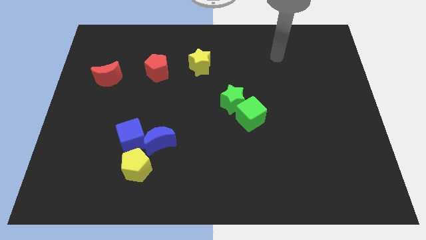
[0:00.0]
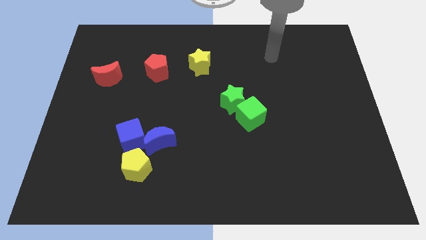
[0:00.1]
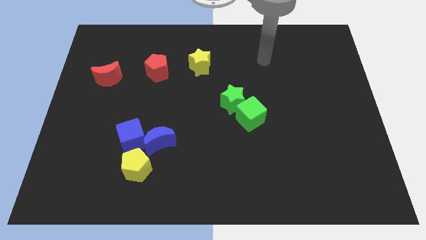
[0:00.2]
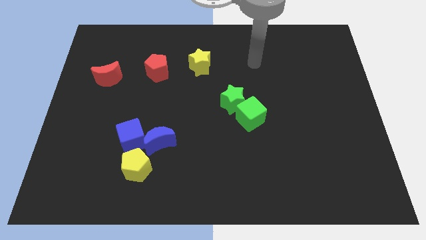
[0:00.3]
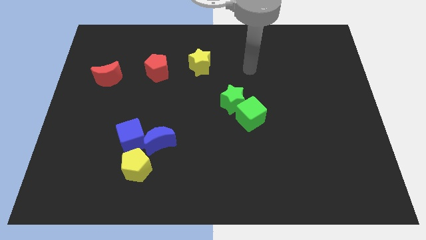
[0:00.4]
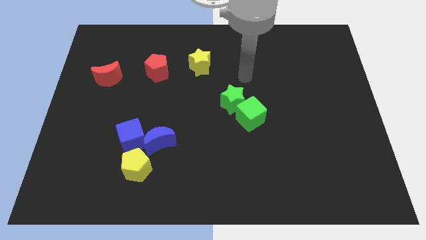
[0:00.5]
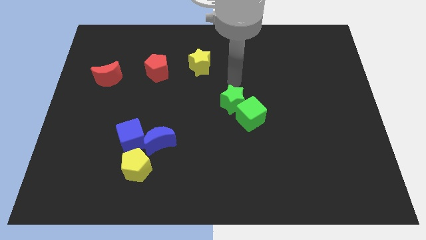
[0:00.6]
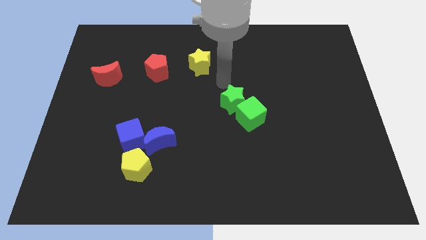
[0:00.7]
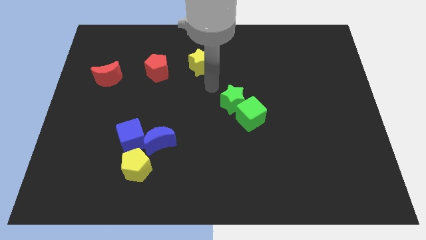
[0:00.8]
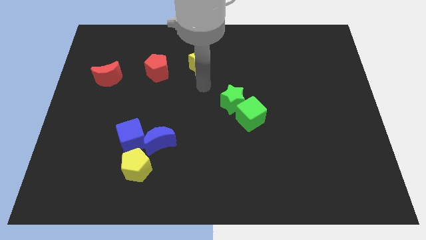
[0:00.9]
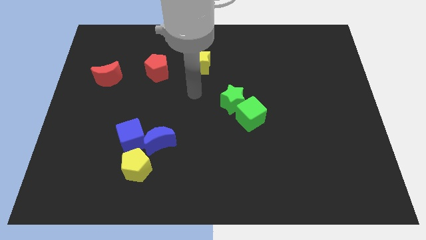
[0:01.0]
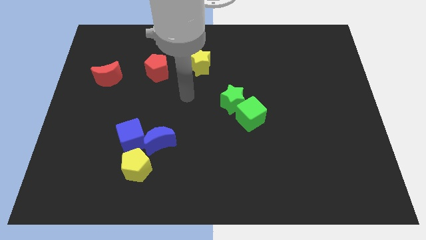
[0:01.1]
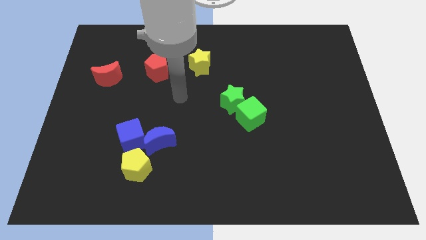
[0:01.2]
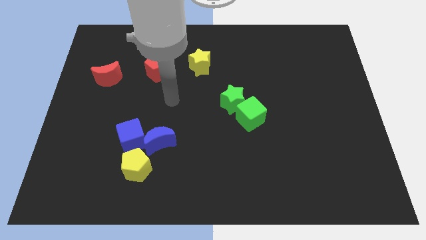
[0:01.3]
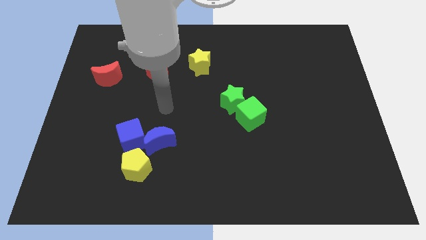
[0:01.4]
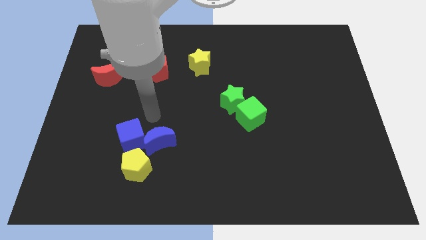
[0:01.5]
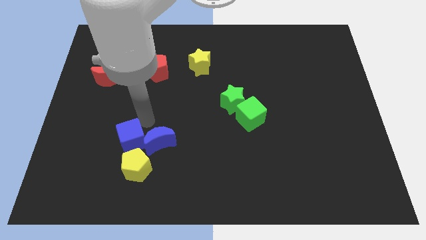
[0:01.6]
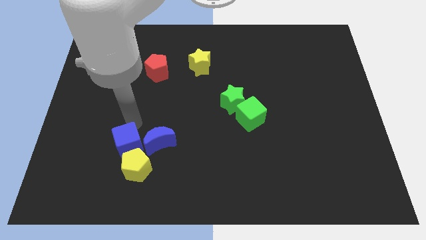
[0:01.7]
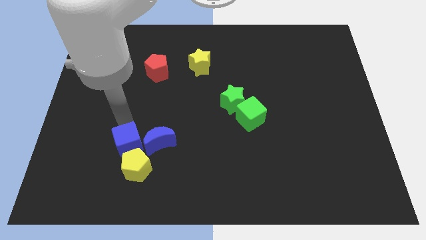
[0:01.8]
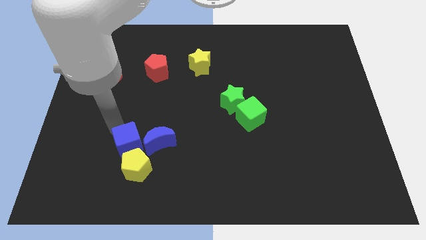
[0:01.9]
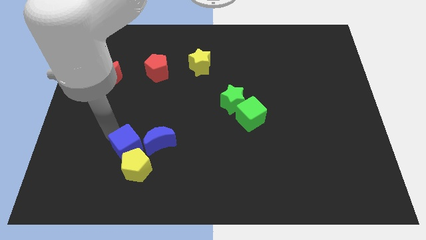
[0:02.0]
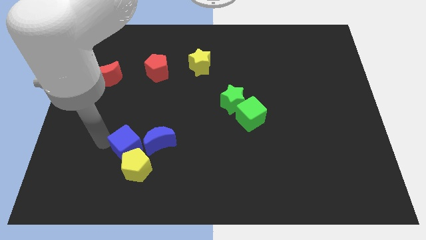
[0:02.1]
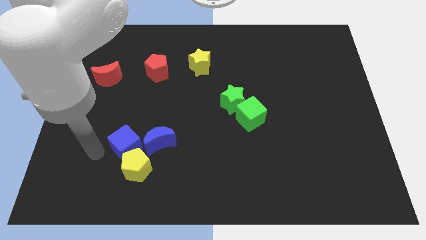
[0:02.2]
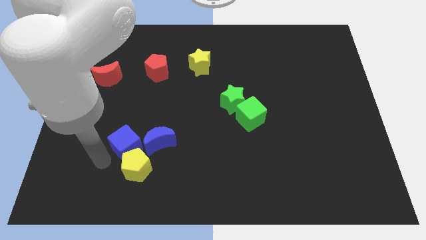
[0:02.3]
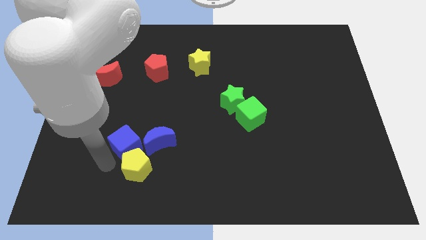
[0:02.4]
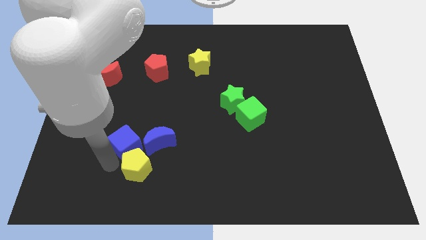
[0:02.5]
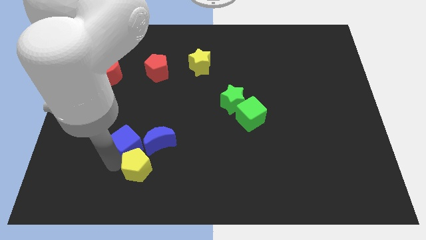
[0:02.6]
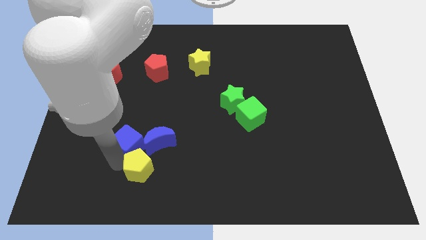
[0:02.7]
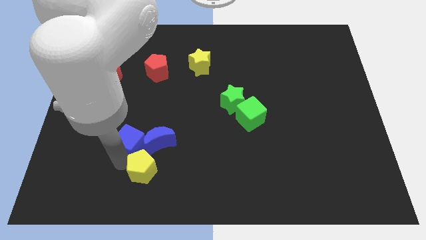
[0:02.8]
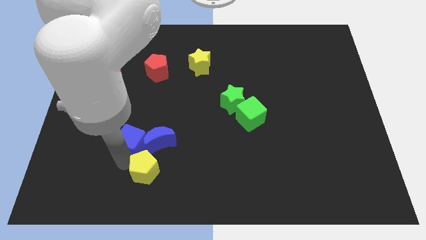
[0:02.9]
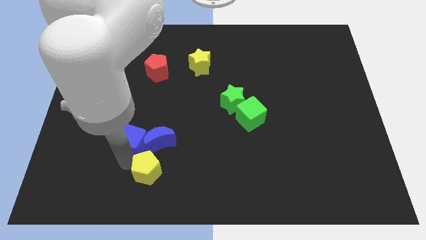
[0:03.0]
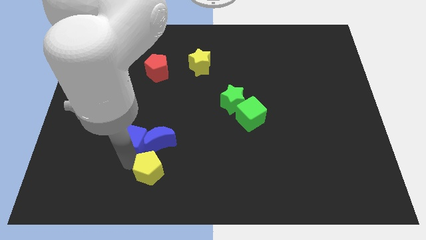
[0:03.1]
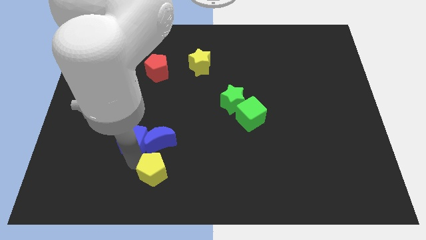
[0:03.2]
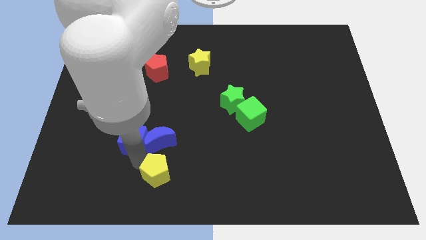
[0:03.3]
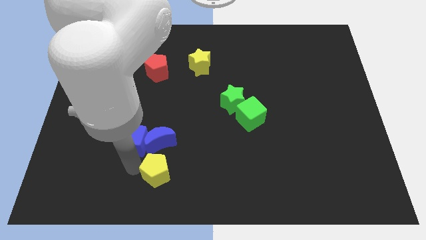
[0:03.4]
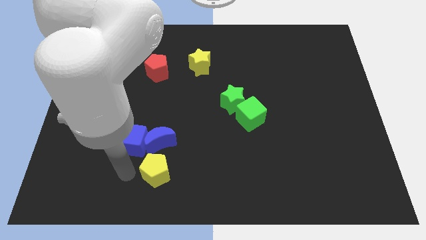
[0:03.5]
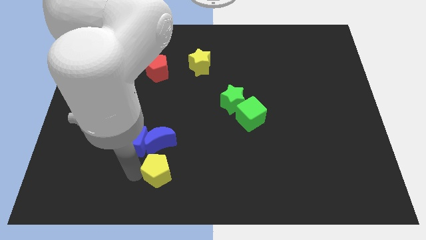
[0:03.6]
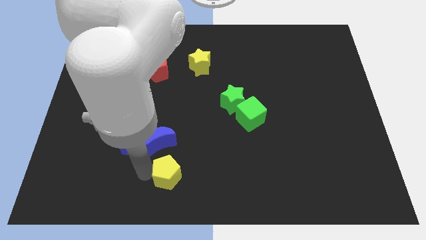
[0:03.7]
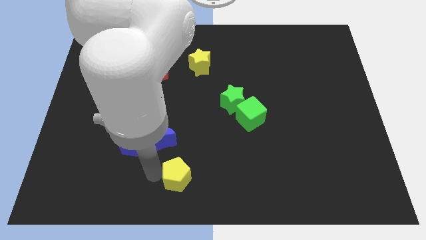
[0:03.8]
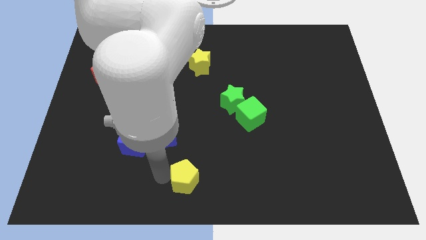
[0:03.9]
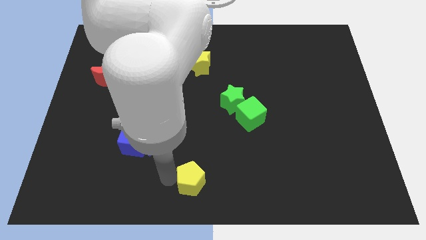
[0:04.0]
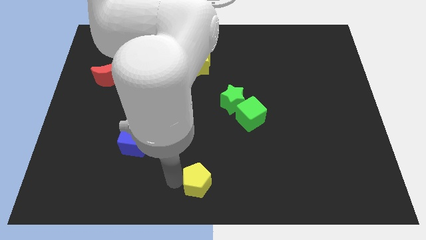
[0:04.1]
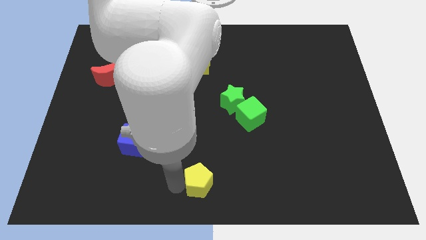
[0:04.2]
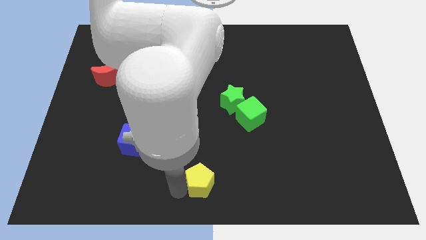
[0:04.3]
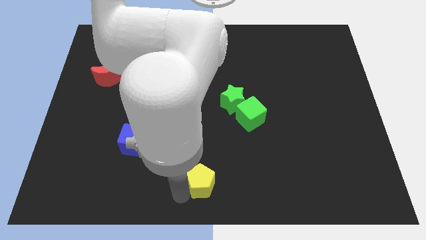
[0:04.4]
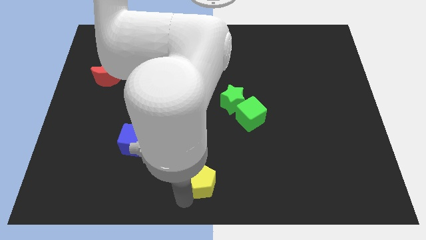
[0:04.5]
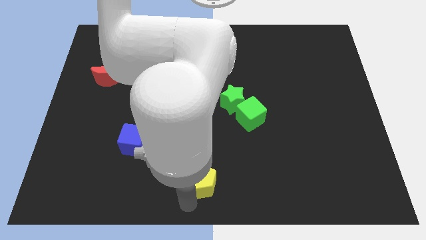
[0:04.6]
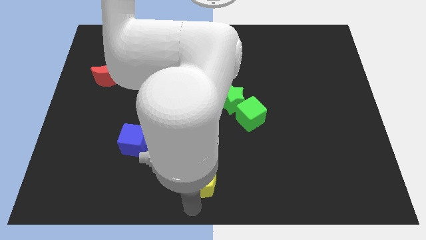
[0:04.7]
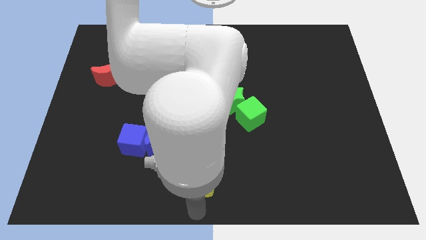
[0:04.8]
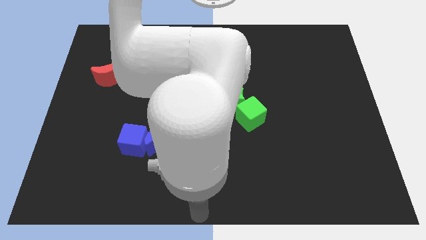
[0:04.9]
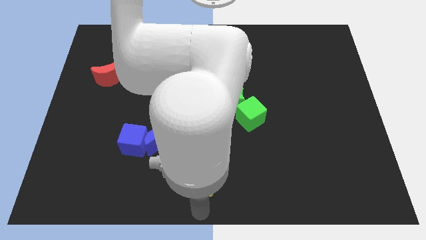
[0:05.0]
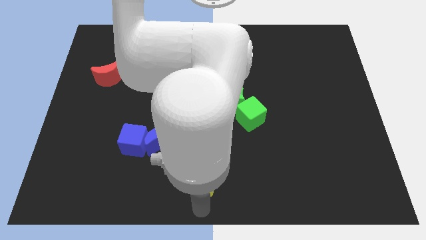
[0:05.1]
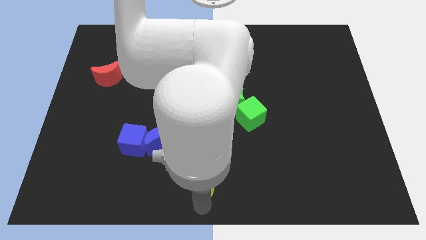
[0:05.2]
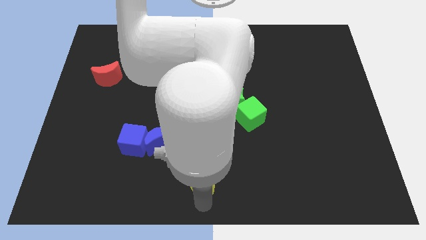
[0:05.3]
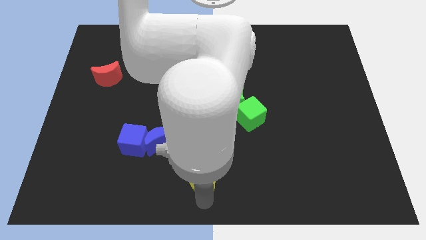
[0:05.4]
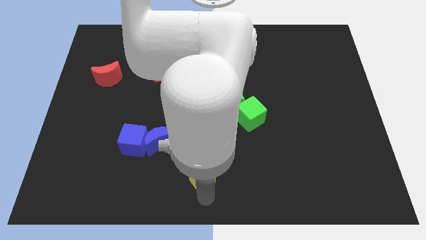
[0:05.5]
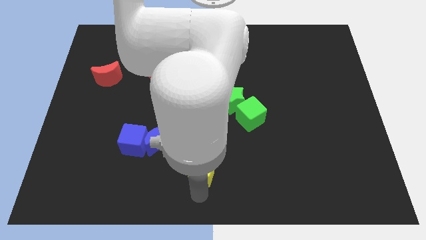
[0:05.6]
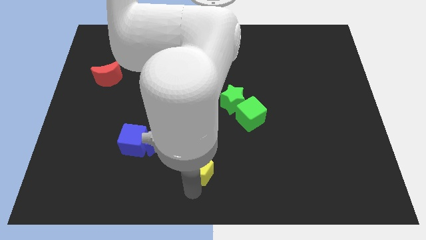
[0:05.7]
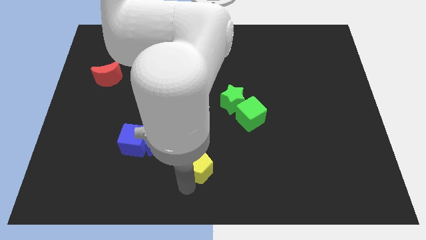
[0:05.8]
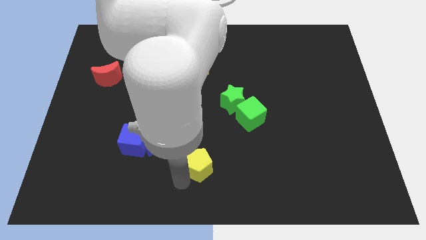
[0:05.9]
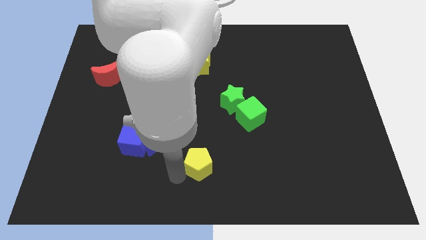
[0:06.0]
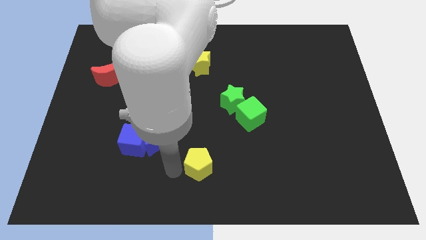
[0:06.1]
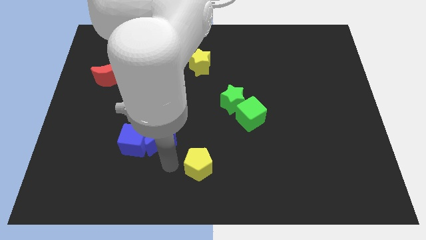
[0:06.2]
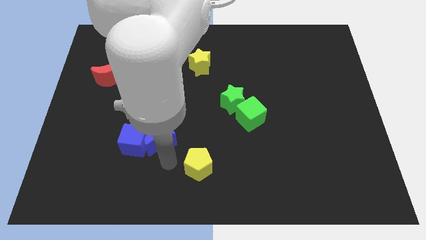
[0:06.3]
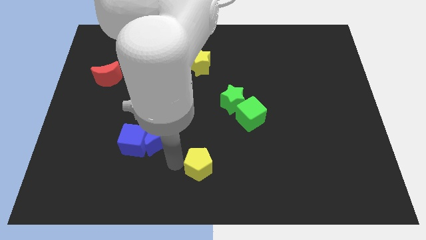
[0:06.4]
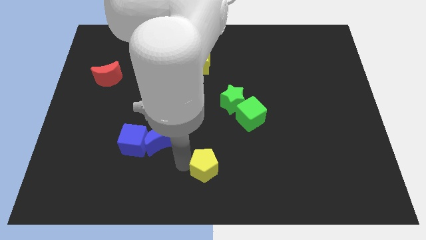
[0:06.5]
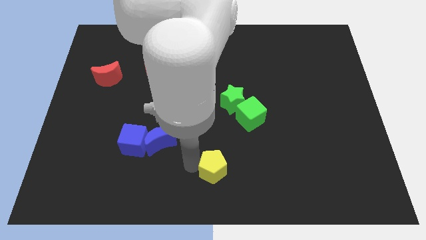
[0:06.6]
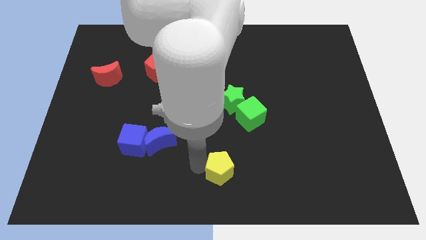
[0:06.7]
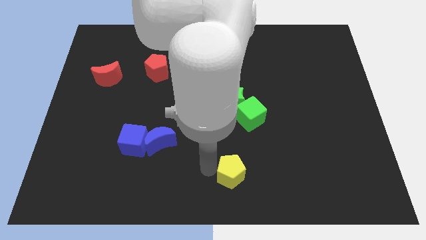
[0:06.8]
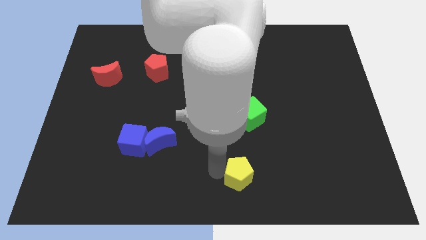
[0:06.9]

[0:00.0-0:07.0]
move the yellow pentagon right

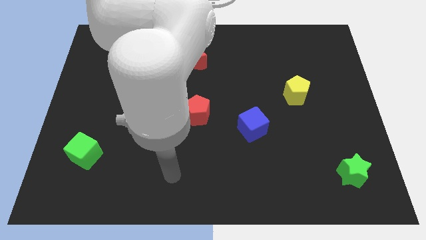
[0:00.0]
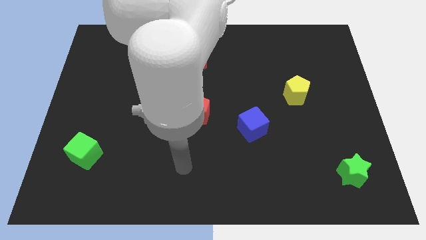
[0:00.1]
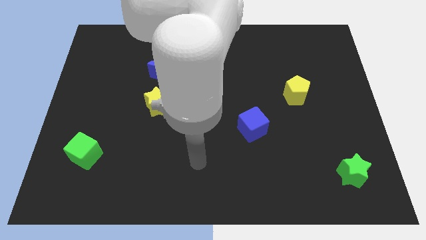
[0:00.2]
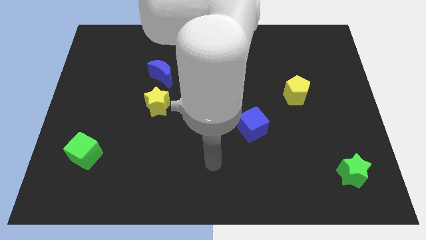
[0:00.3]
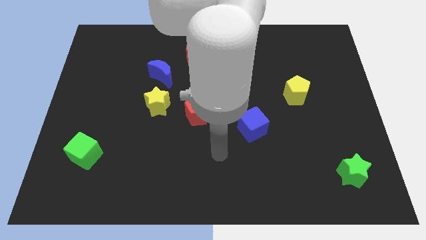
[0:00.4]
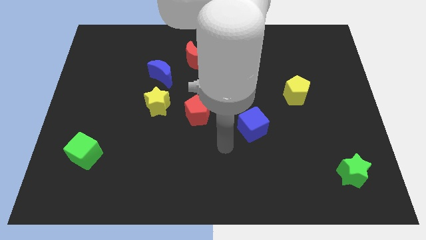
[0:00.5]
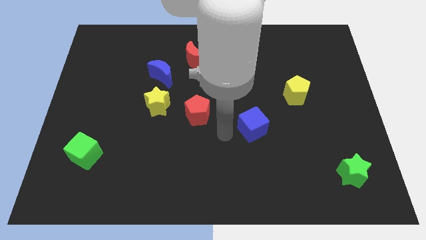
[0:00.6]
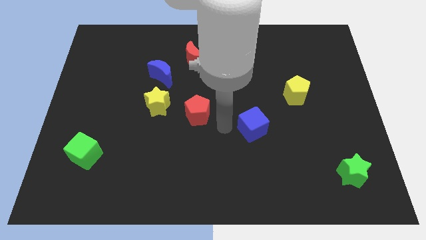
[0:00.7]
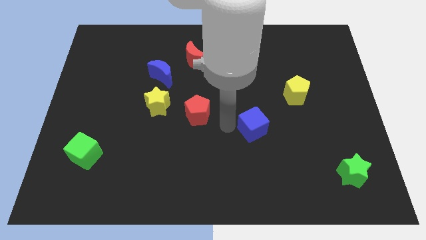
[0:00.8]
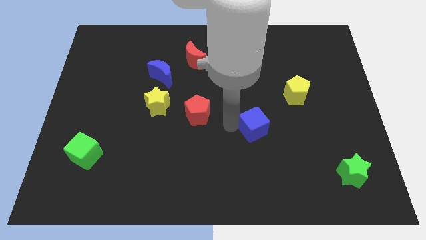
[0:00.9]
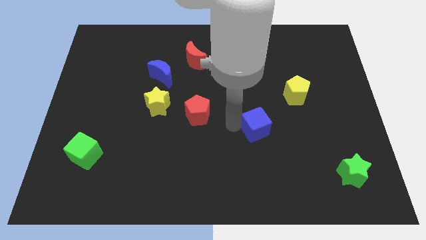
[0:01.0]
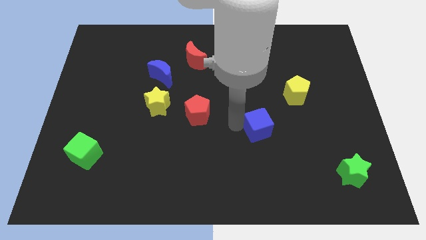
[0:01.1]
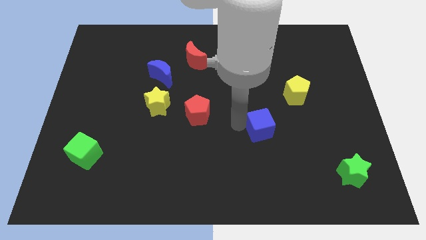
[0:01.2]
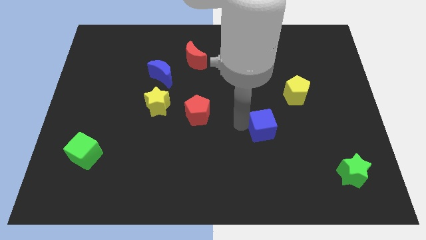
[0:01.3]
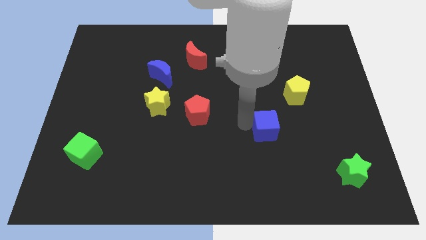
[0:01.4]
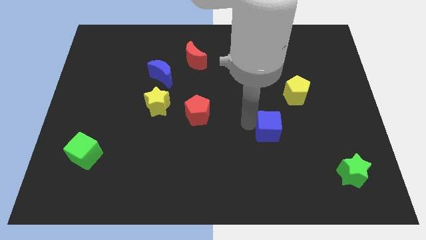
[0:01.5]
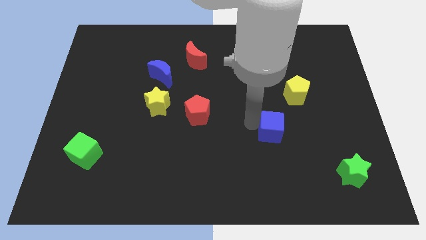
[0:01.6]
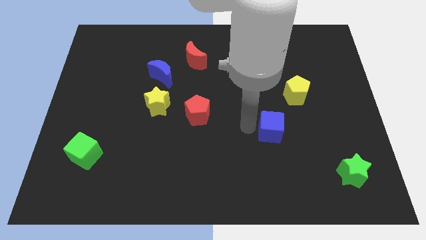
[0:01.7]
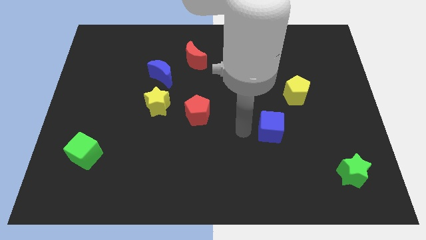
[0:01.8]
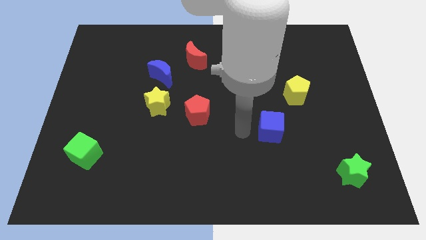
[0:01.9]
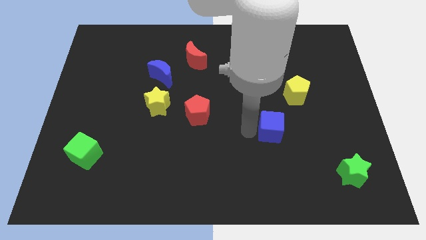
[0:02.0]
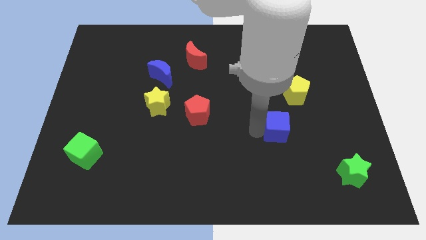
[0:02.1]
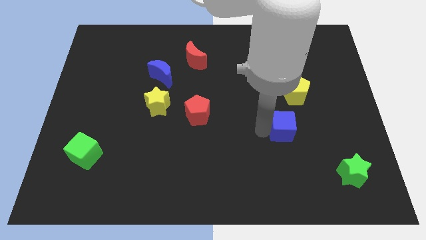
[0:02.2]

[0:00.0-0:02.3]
slide the blue cube right a little bit
